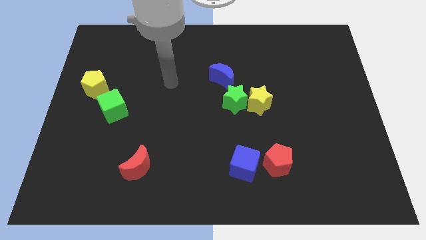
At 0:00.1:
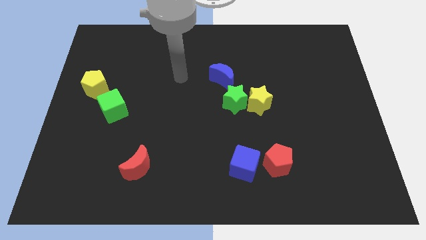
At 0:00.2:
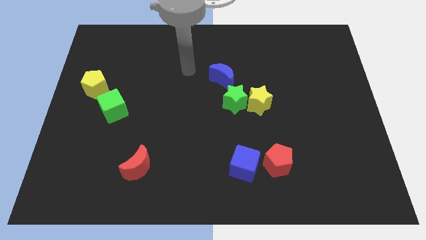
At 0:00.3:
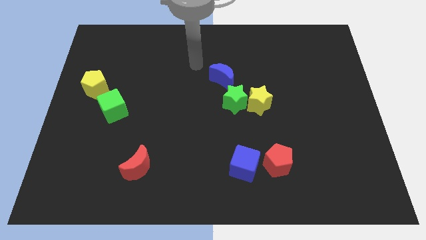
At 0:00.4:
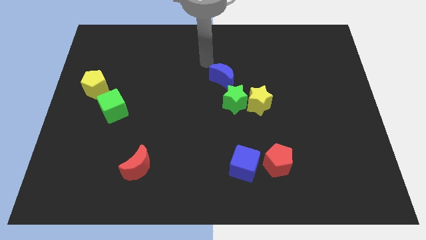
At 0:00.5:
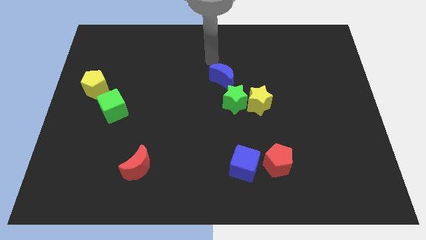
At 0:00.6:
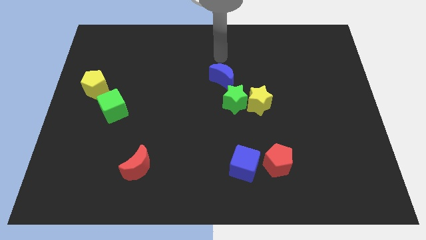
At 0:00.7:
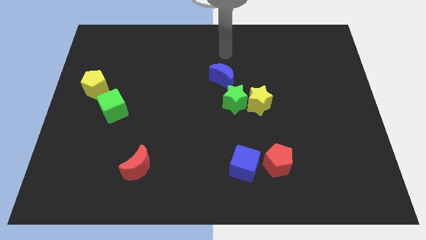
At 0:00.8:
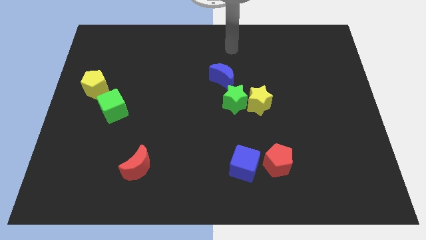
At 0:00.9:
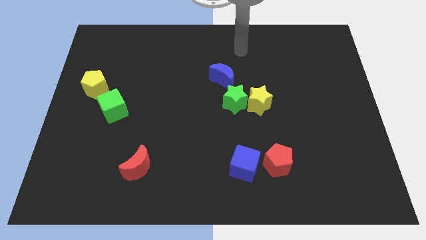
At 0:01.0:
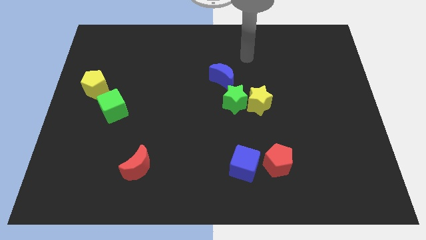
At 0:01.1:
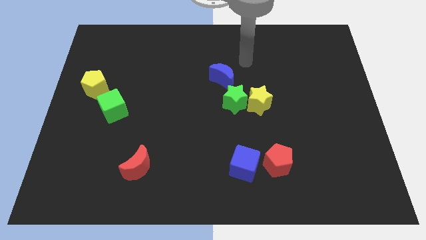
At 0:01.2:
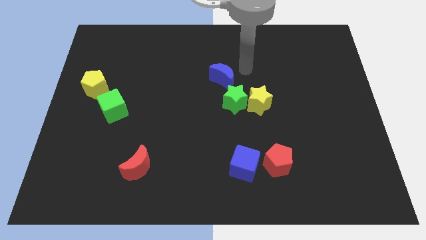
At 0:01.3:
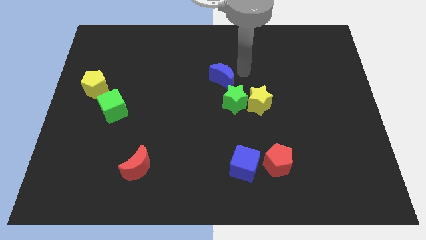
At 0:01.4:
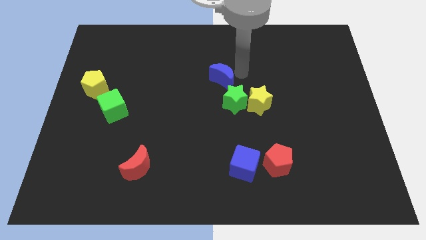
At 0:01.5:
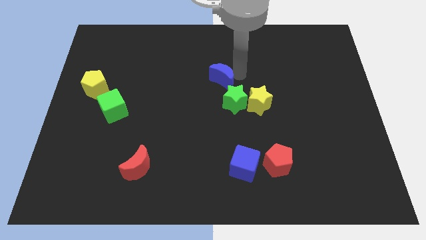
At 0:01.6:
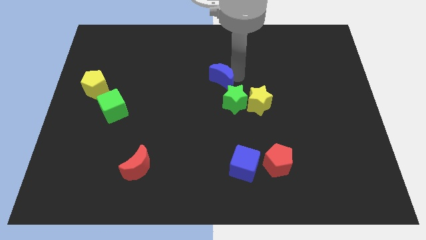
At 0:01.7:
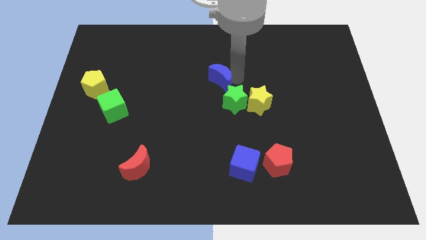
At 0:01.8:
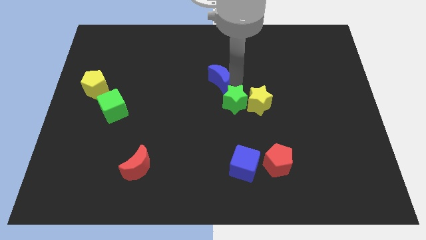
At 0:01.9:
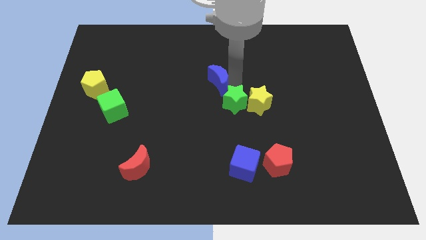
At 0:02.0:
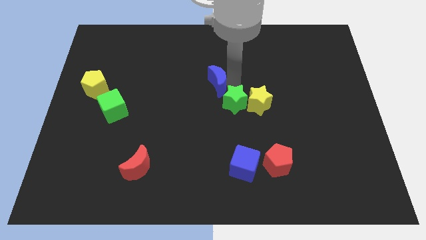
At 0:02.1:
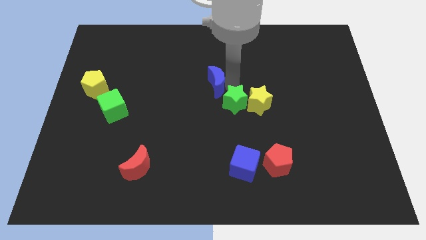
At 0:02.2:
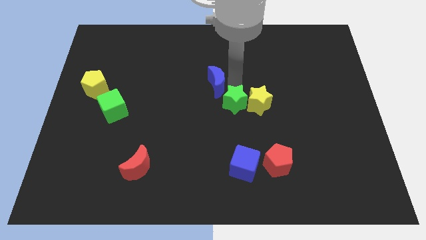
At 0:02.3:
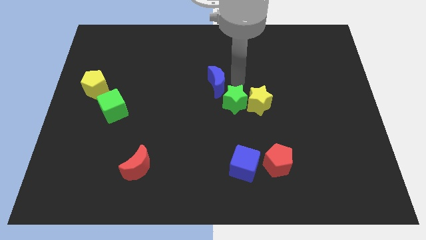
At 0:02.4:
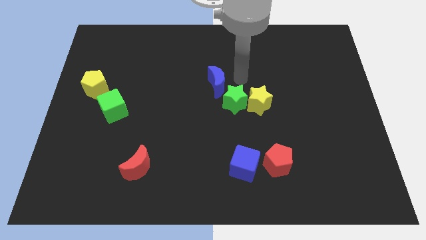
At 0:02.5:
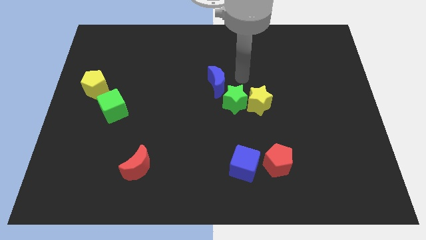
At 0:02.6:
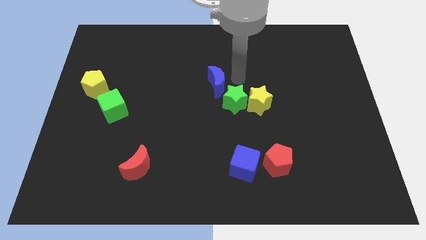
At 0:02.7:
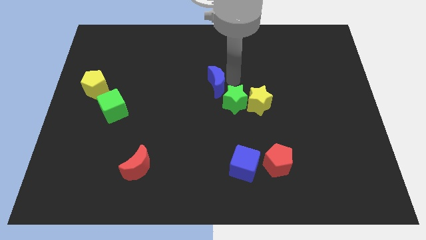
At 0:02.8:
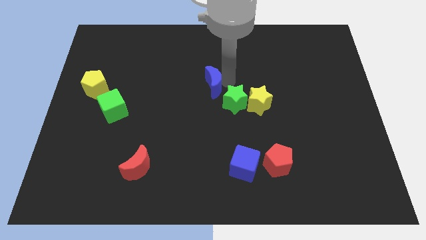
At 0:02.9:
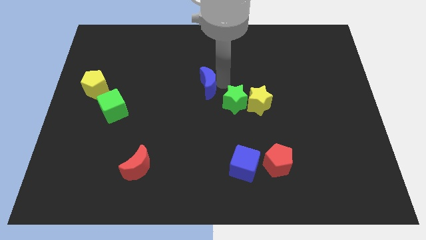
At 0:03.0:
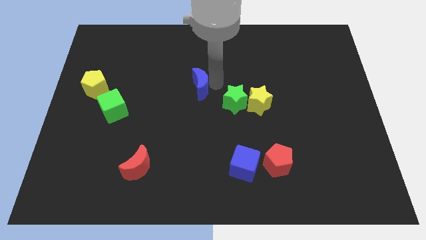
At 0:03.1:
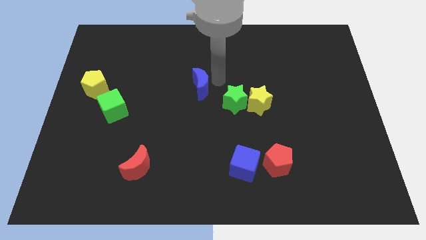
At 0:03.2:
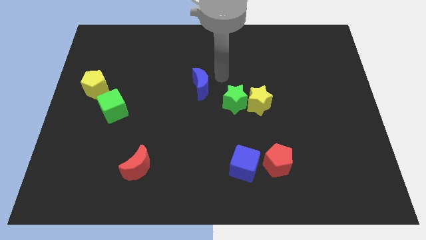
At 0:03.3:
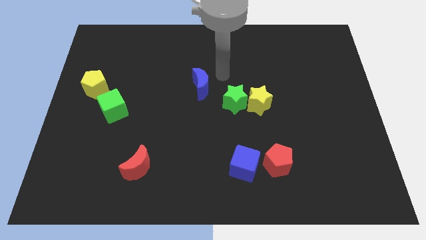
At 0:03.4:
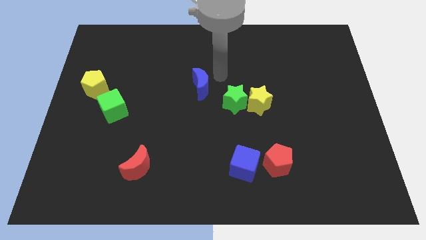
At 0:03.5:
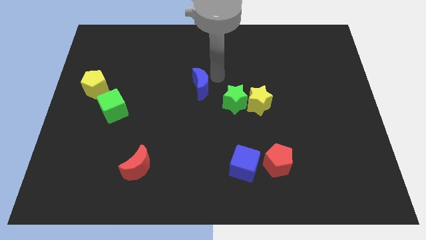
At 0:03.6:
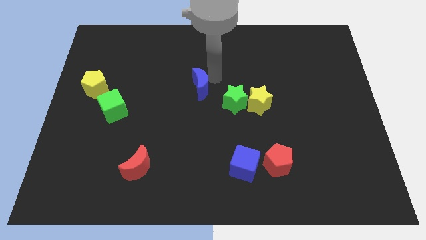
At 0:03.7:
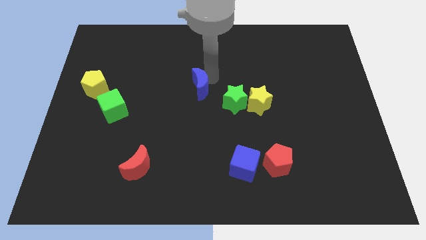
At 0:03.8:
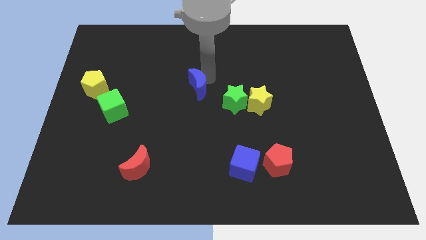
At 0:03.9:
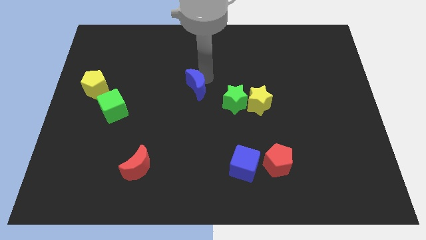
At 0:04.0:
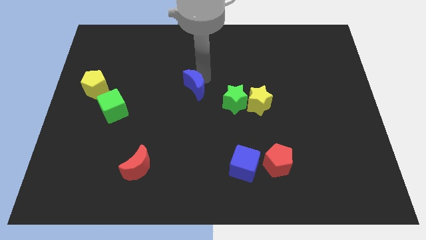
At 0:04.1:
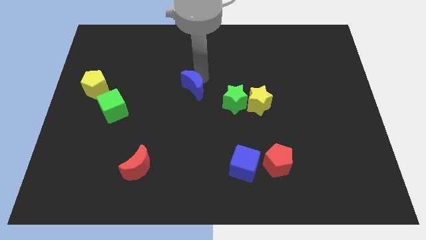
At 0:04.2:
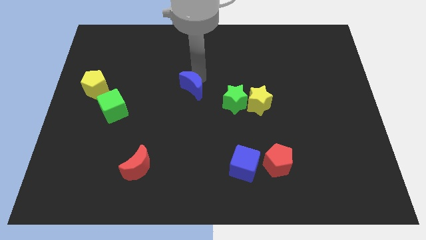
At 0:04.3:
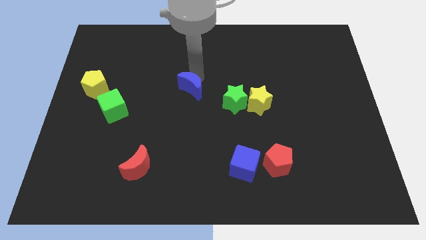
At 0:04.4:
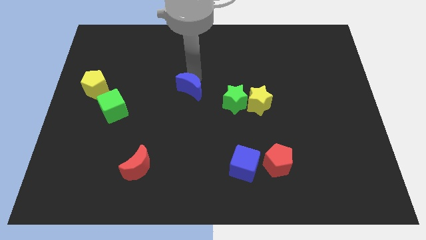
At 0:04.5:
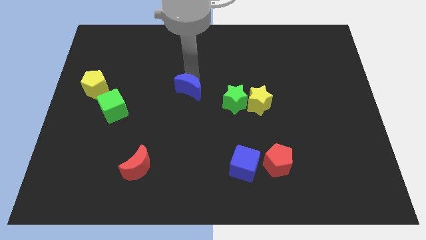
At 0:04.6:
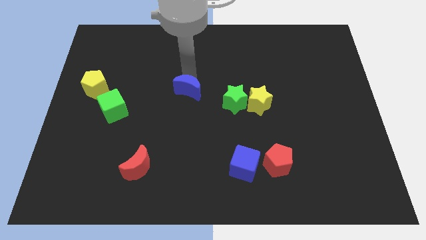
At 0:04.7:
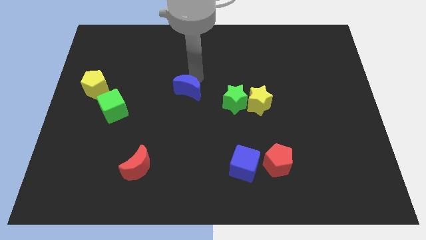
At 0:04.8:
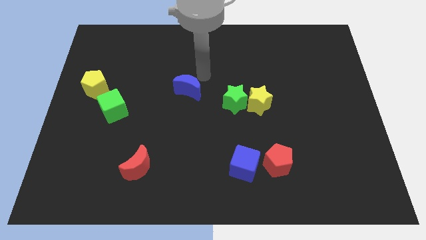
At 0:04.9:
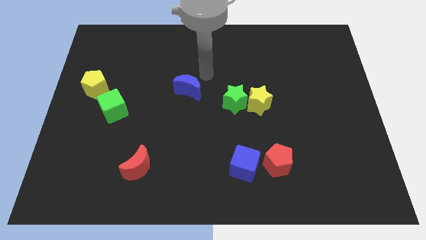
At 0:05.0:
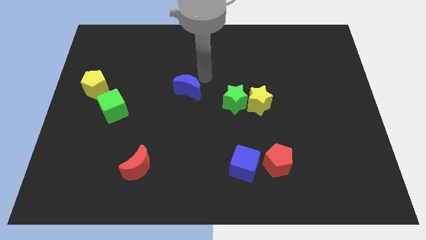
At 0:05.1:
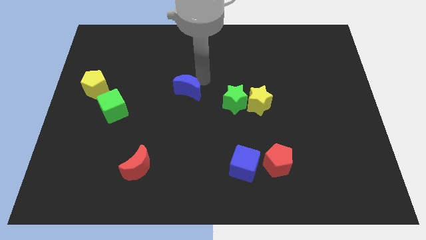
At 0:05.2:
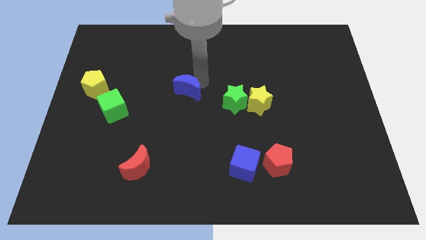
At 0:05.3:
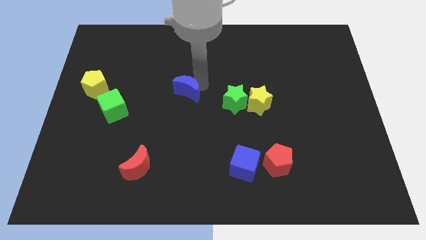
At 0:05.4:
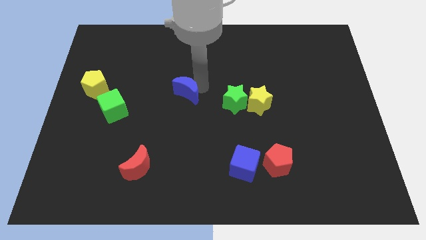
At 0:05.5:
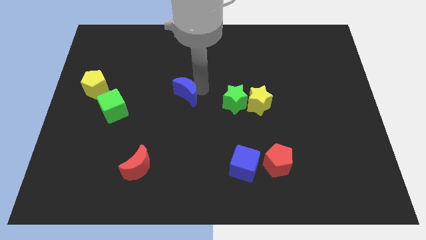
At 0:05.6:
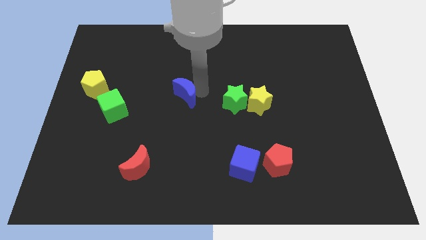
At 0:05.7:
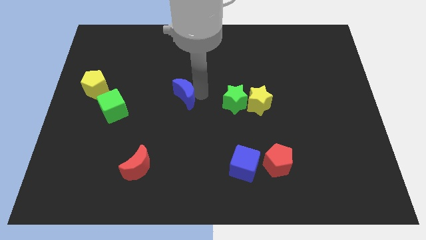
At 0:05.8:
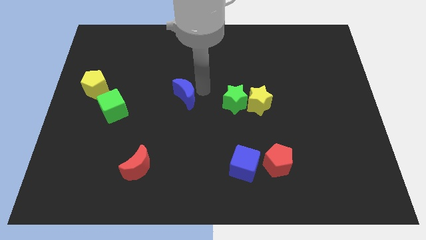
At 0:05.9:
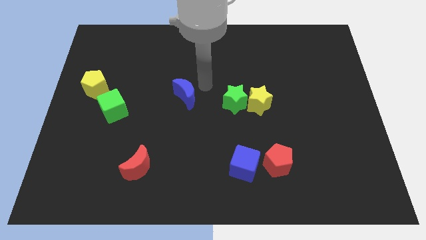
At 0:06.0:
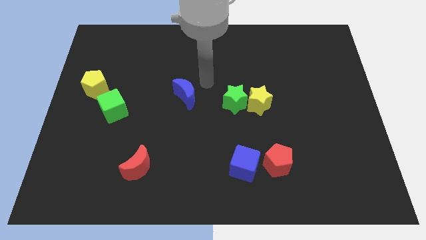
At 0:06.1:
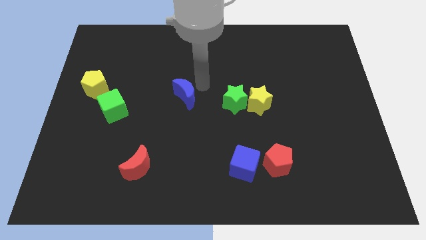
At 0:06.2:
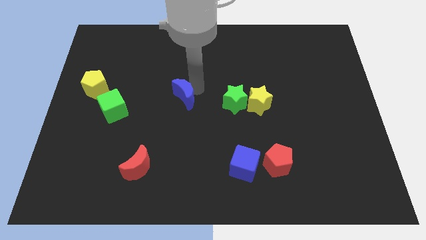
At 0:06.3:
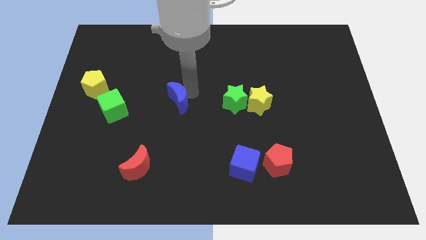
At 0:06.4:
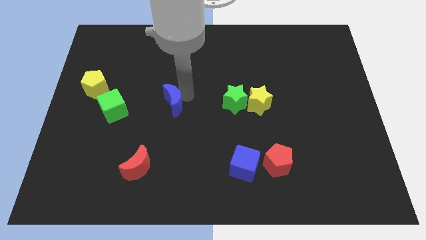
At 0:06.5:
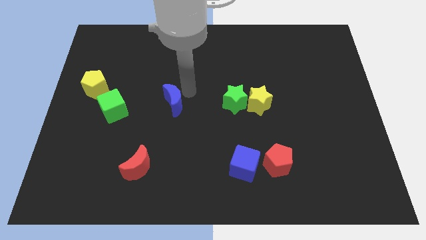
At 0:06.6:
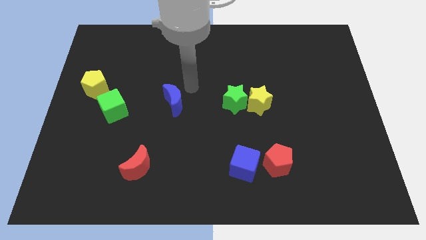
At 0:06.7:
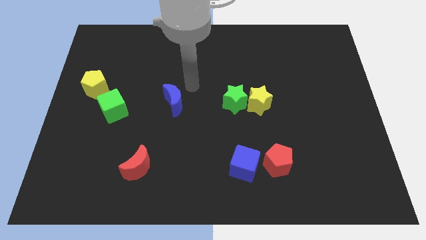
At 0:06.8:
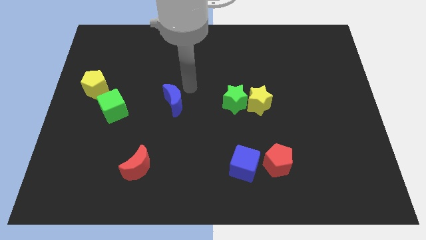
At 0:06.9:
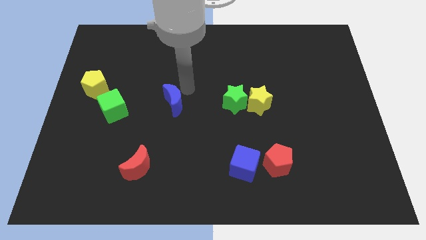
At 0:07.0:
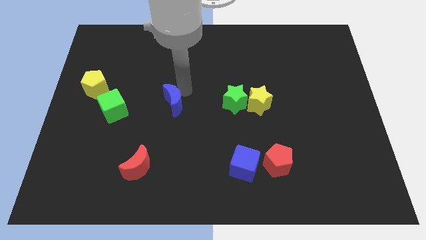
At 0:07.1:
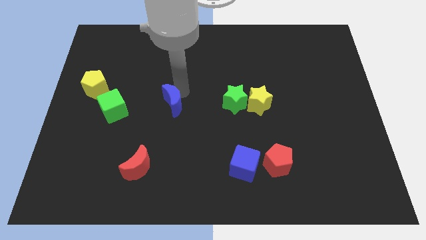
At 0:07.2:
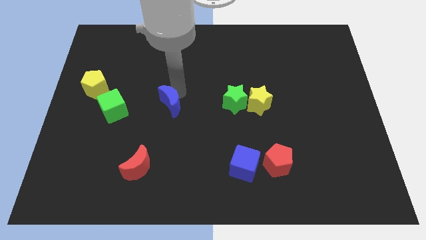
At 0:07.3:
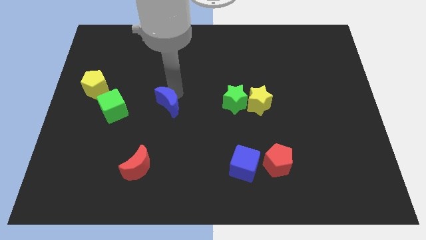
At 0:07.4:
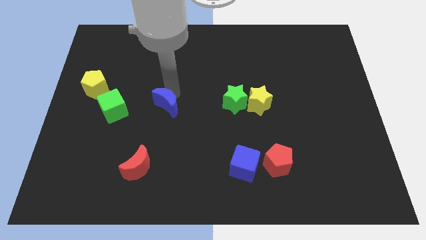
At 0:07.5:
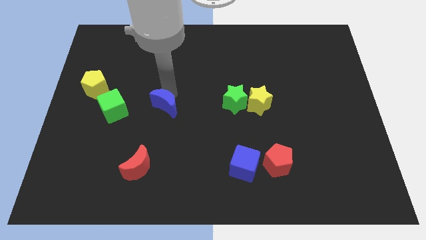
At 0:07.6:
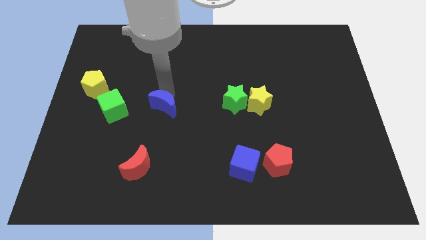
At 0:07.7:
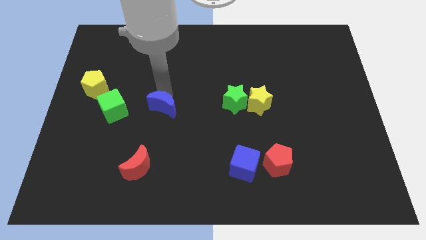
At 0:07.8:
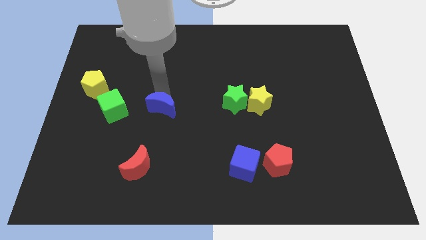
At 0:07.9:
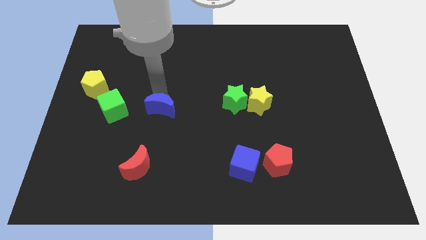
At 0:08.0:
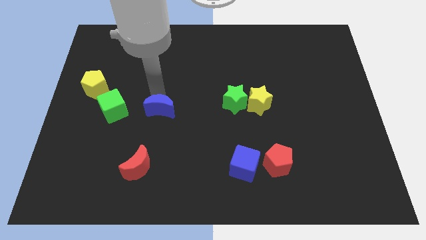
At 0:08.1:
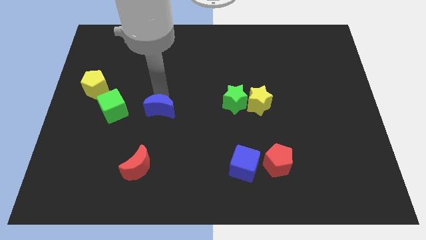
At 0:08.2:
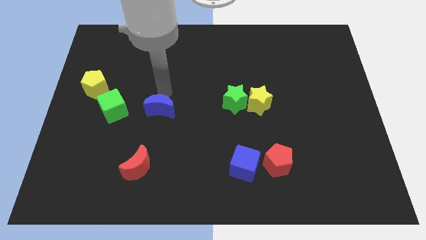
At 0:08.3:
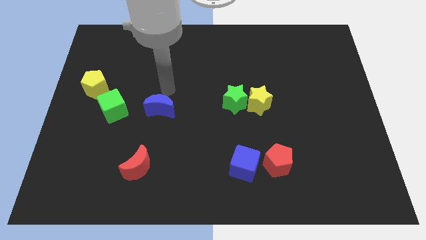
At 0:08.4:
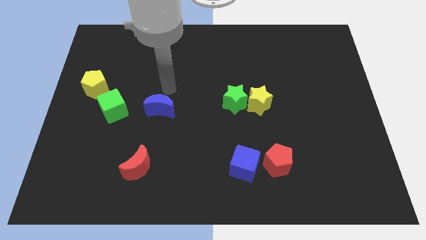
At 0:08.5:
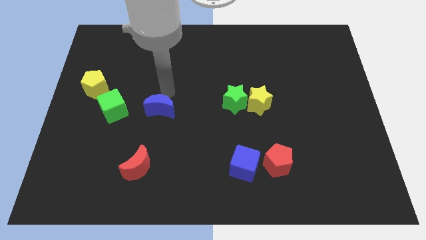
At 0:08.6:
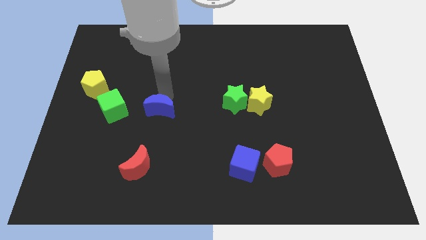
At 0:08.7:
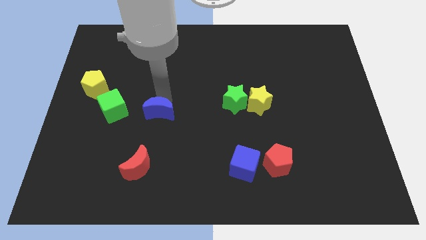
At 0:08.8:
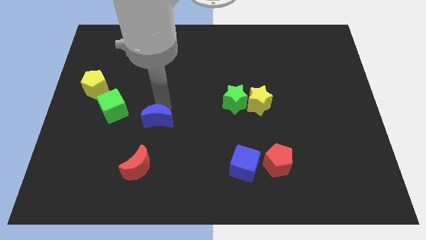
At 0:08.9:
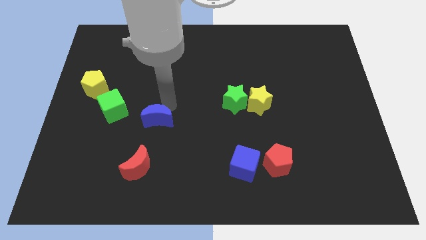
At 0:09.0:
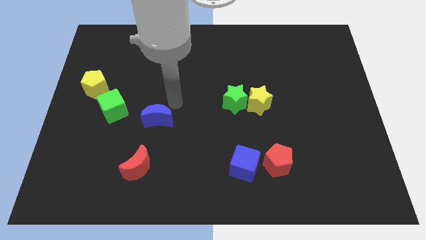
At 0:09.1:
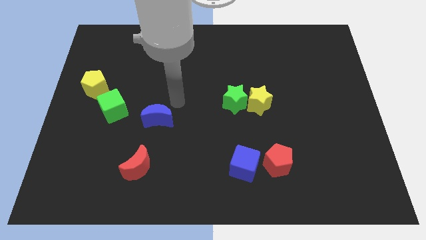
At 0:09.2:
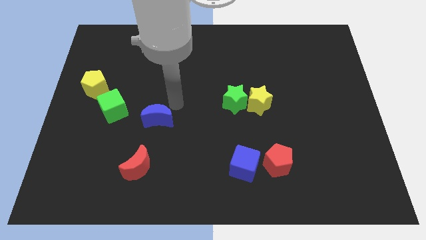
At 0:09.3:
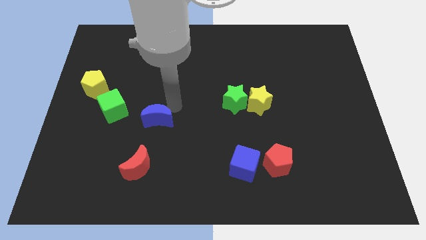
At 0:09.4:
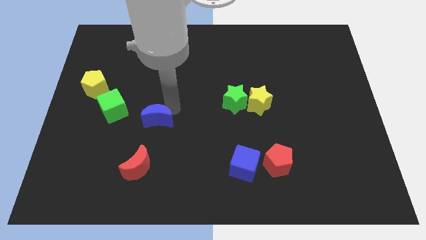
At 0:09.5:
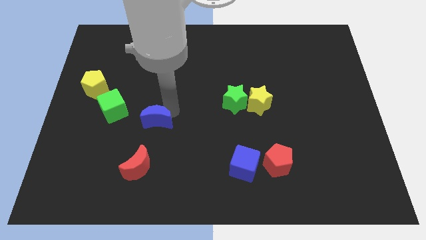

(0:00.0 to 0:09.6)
slide the blue moon down and left
